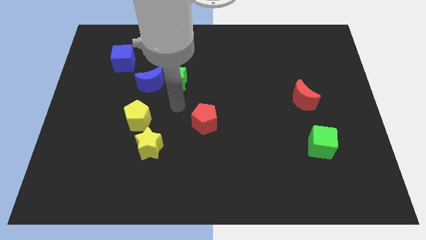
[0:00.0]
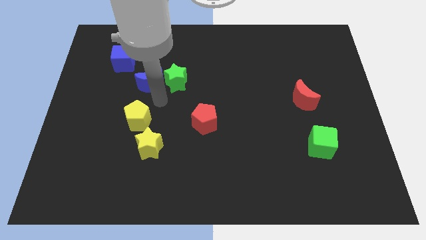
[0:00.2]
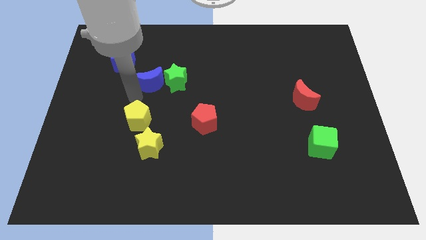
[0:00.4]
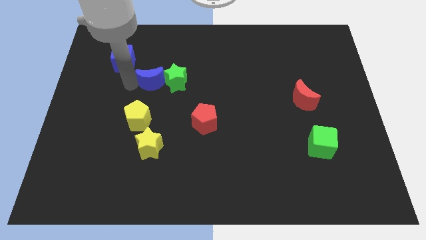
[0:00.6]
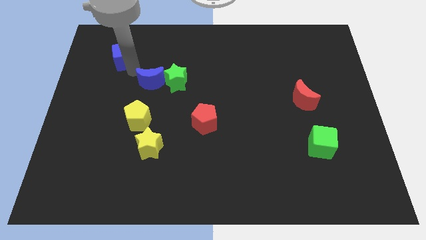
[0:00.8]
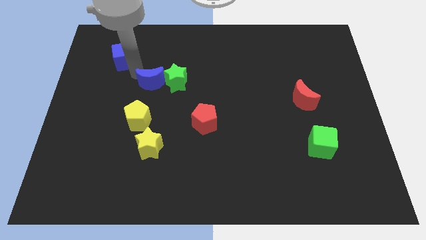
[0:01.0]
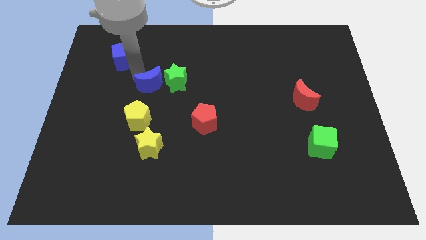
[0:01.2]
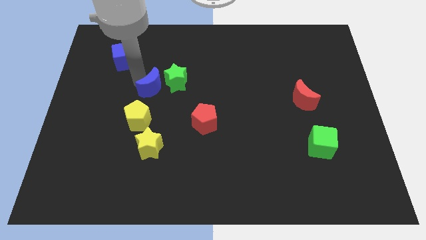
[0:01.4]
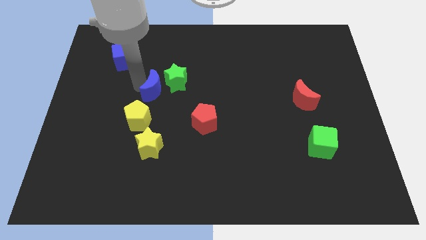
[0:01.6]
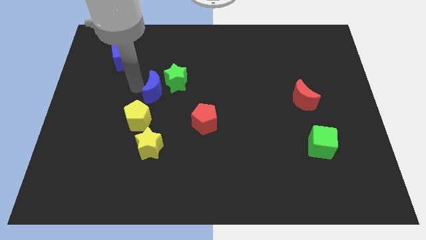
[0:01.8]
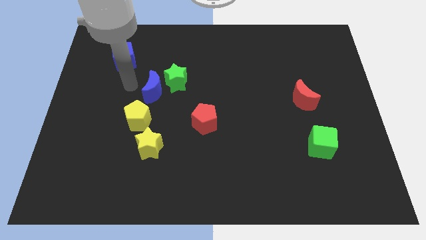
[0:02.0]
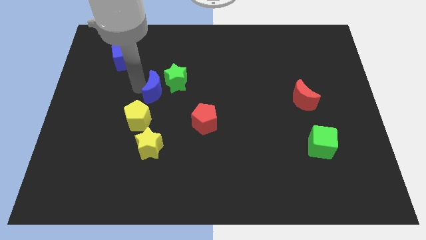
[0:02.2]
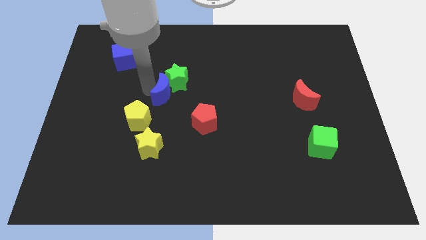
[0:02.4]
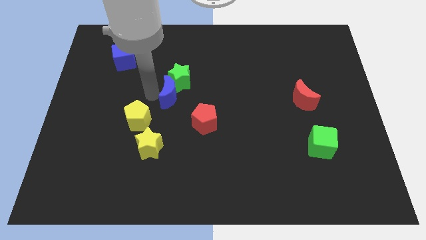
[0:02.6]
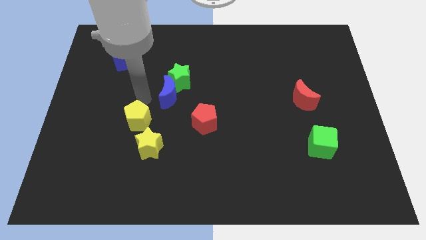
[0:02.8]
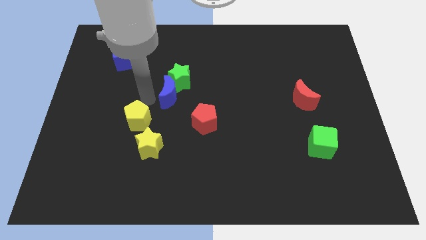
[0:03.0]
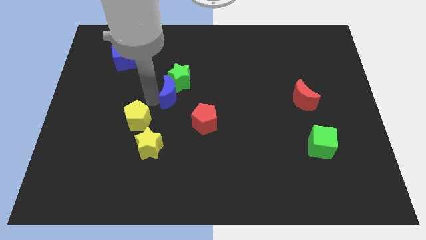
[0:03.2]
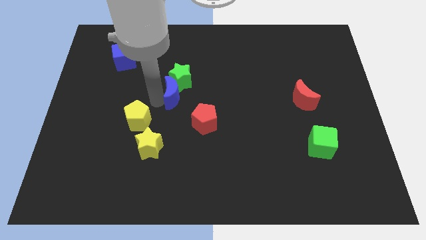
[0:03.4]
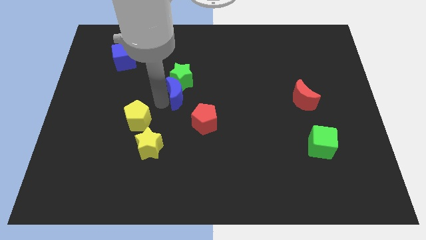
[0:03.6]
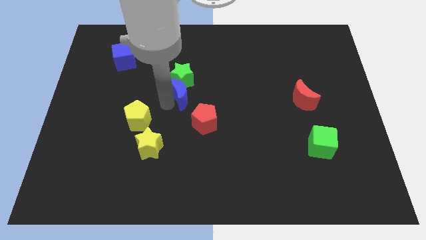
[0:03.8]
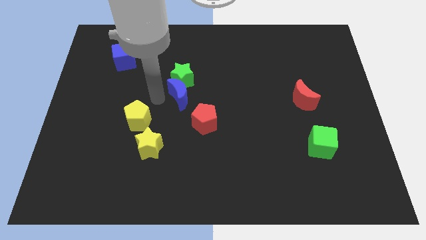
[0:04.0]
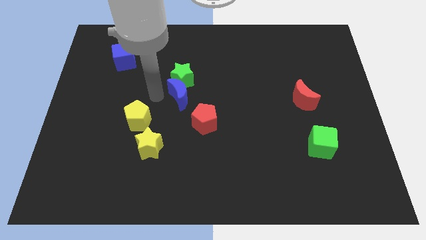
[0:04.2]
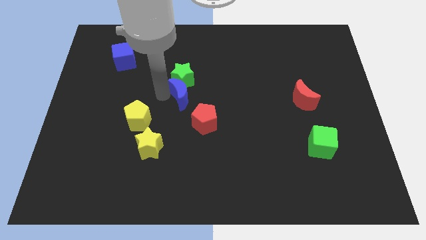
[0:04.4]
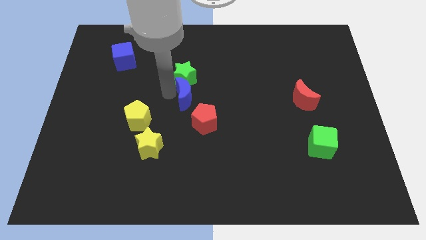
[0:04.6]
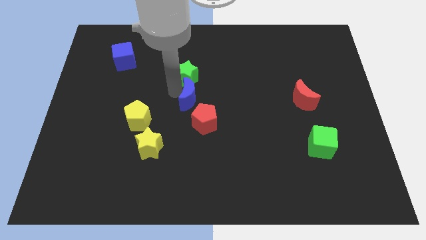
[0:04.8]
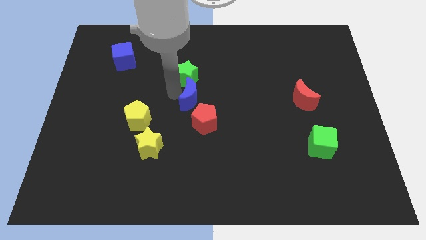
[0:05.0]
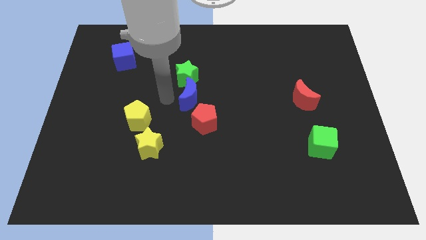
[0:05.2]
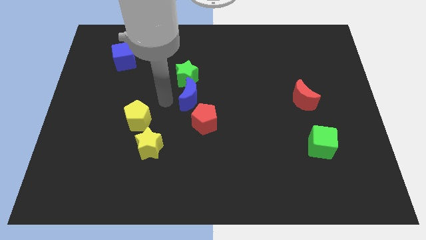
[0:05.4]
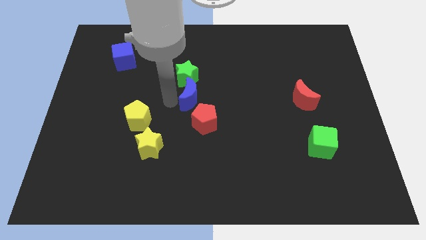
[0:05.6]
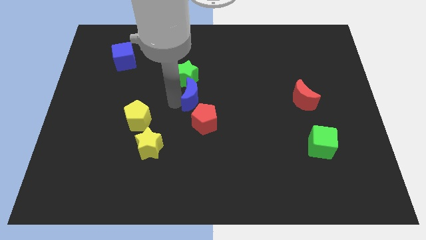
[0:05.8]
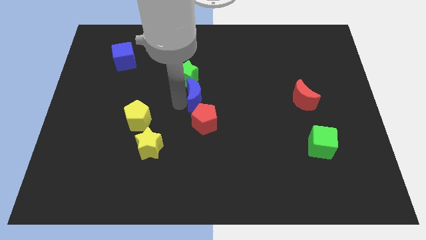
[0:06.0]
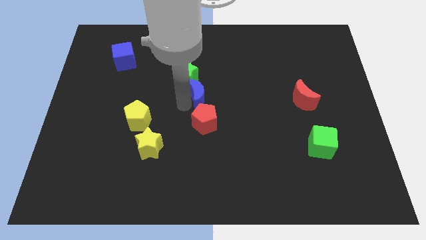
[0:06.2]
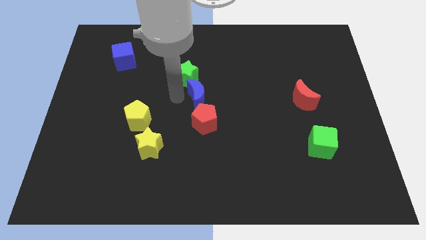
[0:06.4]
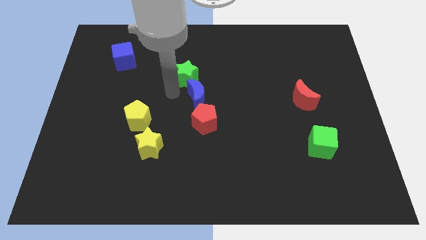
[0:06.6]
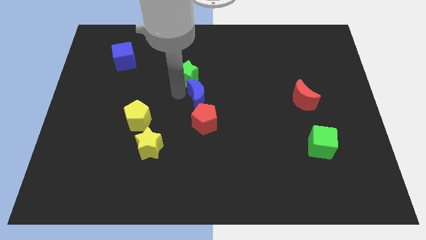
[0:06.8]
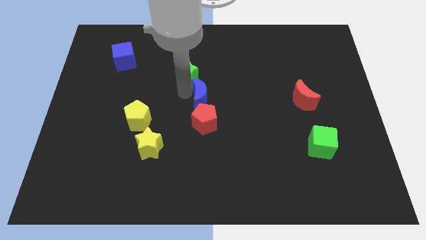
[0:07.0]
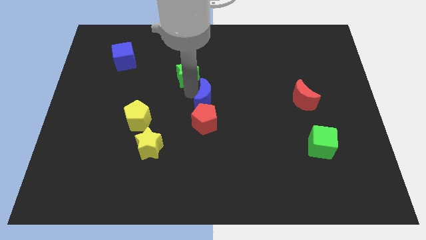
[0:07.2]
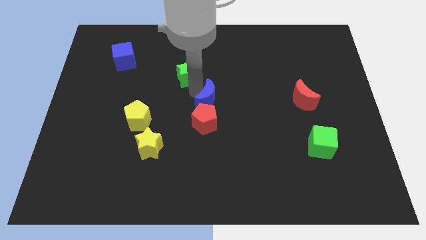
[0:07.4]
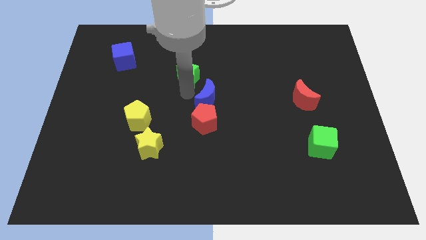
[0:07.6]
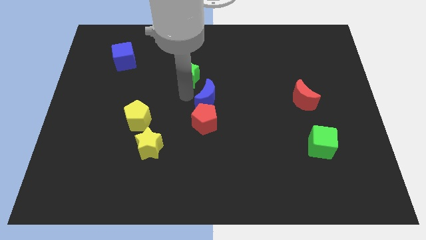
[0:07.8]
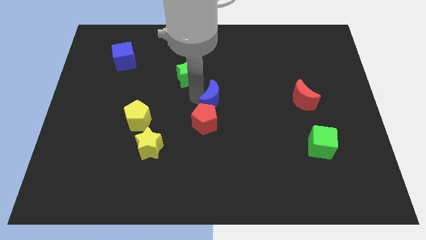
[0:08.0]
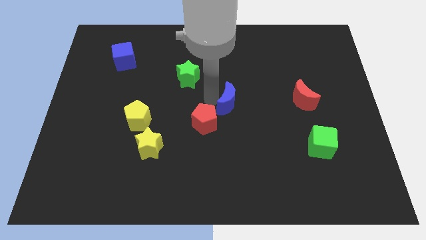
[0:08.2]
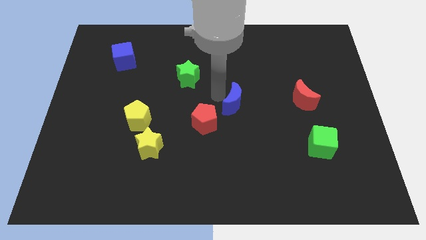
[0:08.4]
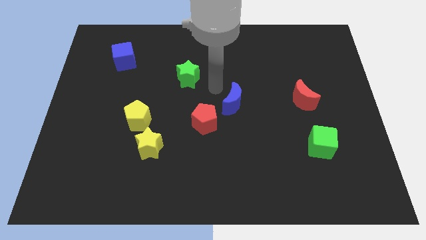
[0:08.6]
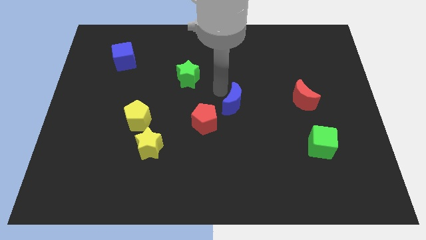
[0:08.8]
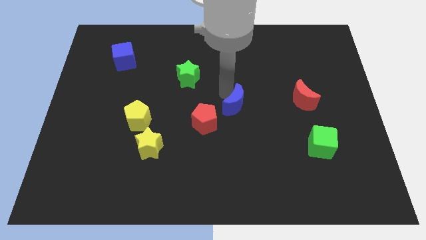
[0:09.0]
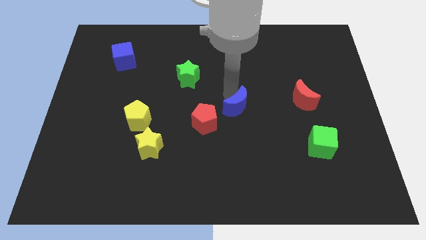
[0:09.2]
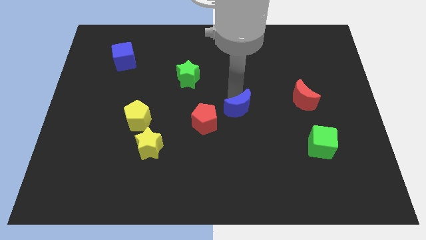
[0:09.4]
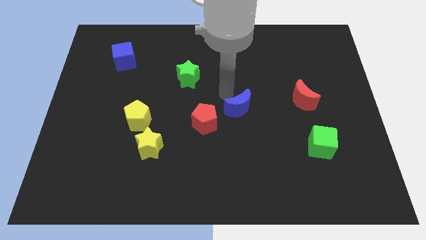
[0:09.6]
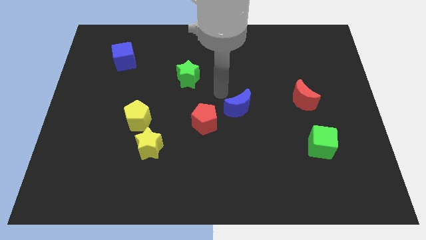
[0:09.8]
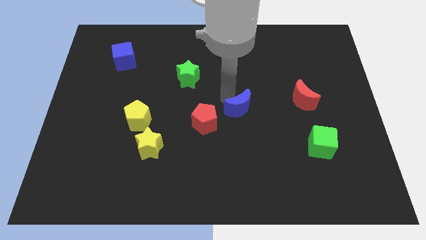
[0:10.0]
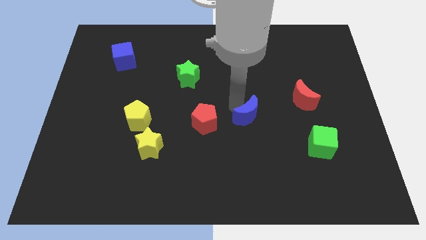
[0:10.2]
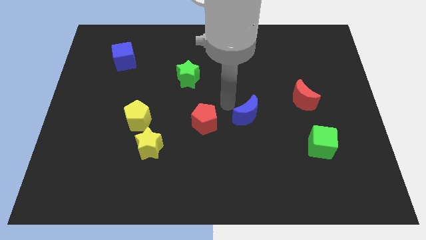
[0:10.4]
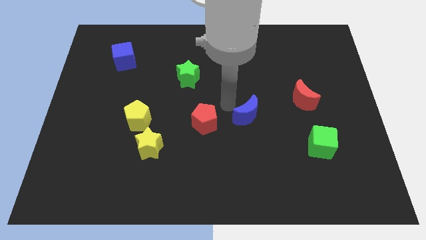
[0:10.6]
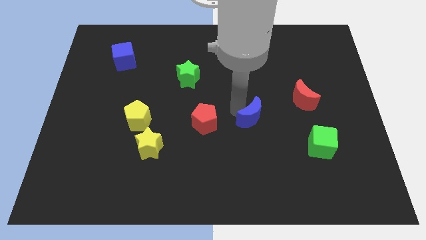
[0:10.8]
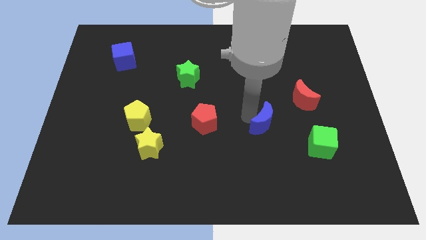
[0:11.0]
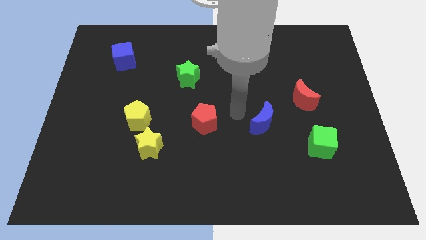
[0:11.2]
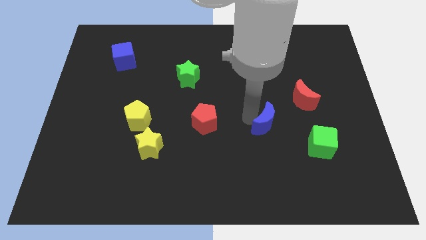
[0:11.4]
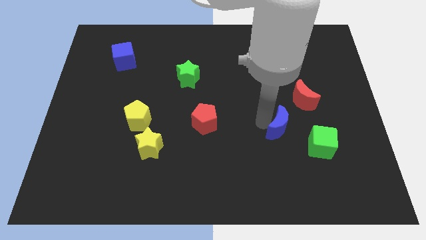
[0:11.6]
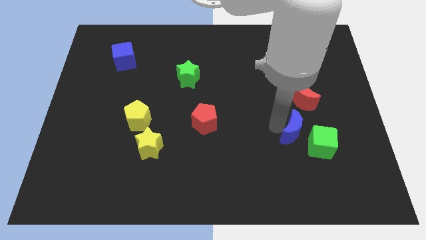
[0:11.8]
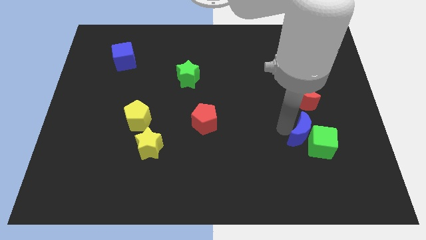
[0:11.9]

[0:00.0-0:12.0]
slide the blue moon next to the green cube

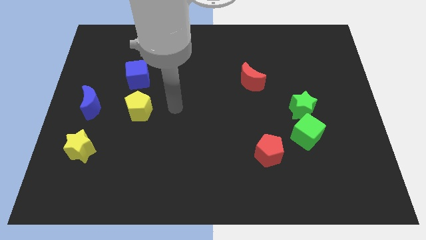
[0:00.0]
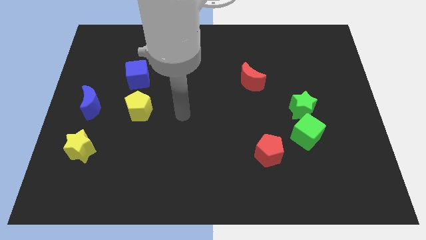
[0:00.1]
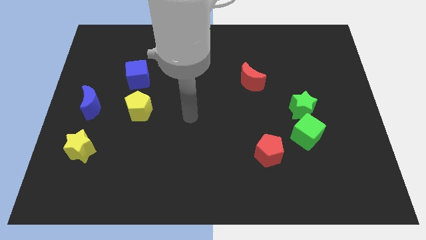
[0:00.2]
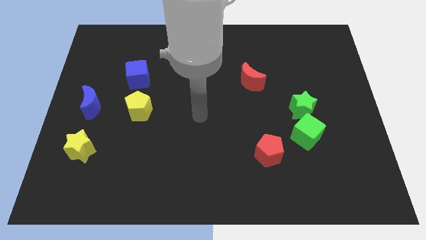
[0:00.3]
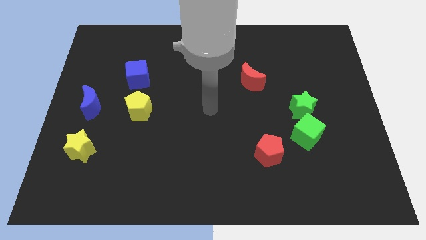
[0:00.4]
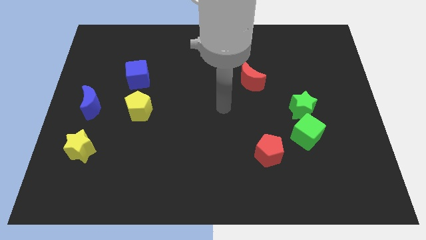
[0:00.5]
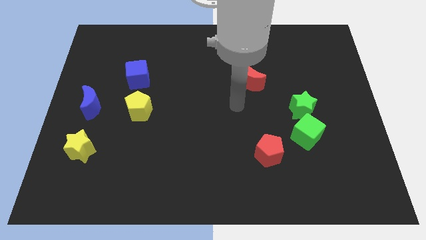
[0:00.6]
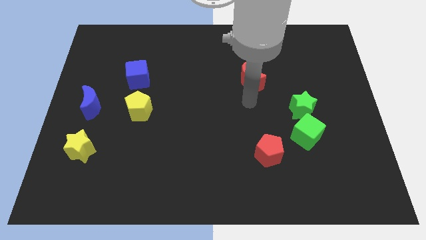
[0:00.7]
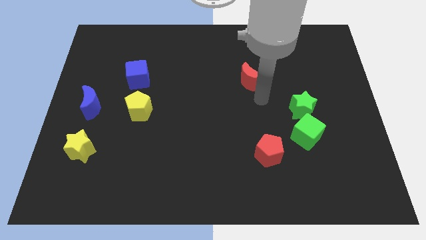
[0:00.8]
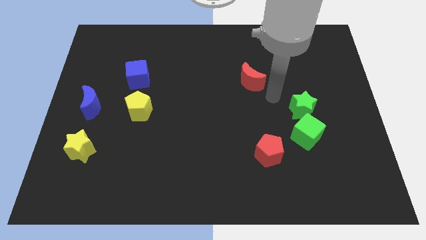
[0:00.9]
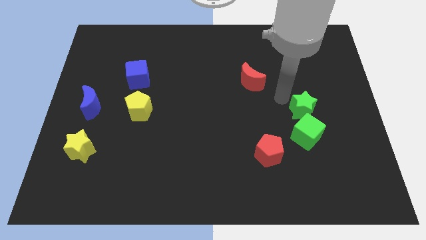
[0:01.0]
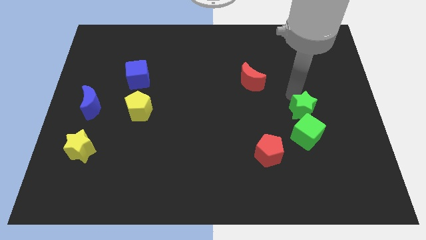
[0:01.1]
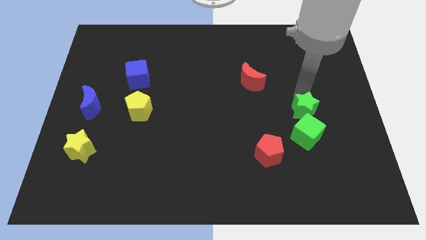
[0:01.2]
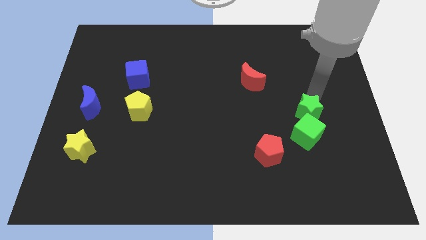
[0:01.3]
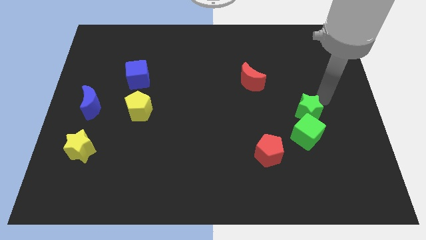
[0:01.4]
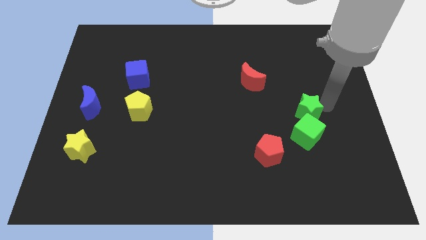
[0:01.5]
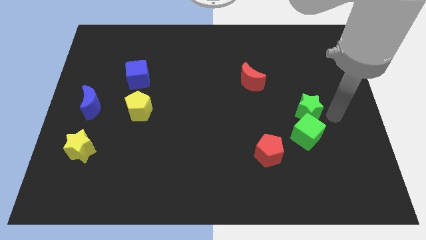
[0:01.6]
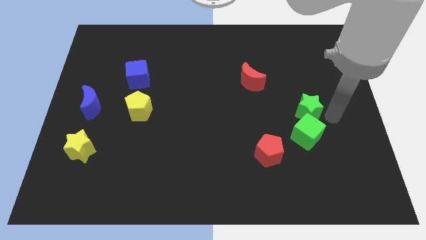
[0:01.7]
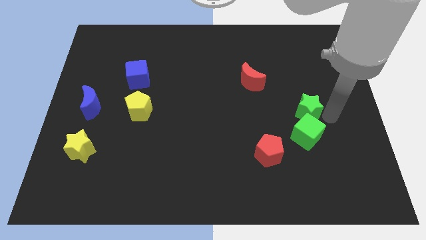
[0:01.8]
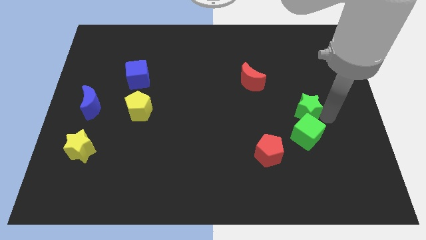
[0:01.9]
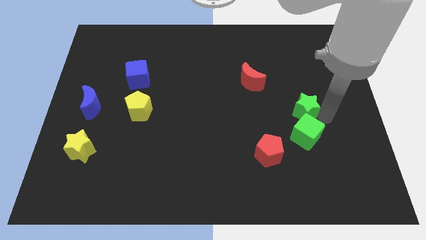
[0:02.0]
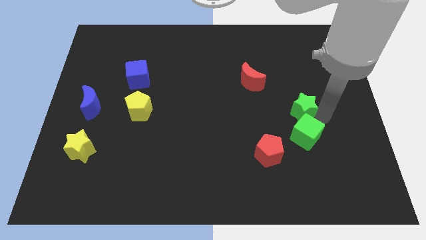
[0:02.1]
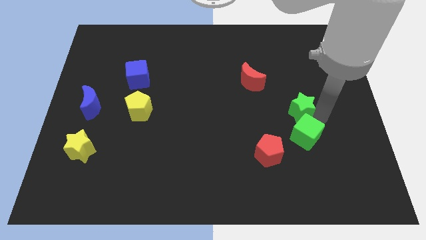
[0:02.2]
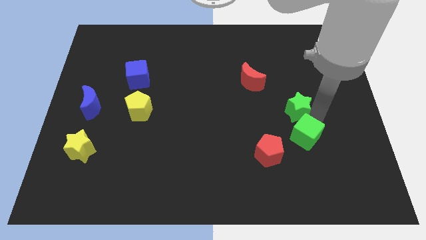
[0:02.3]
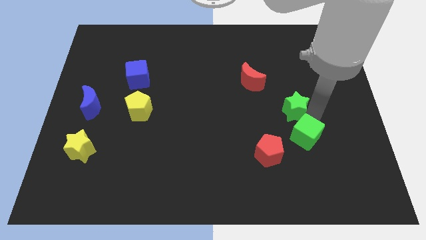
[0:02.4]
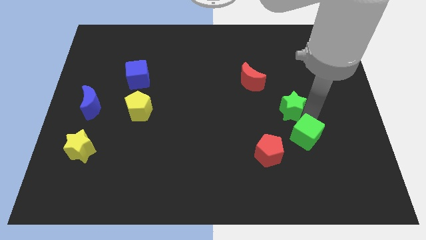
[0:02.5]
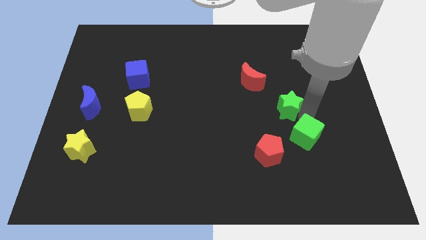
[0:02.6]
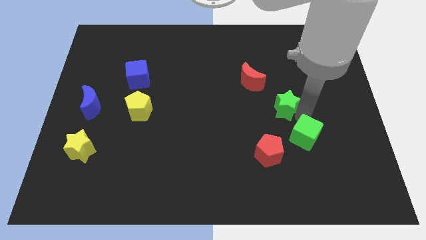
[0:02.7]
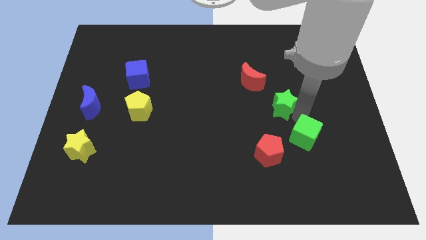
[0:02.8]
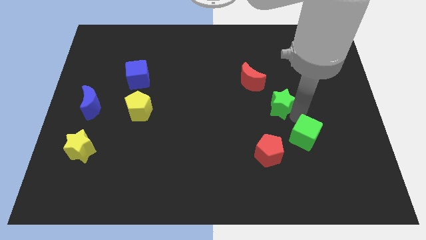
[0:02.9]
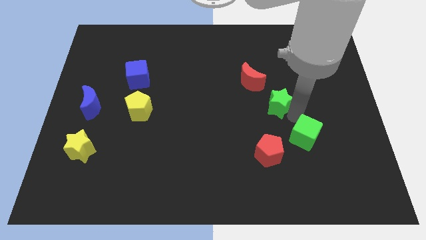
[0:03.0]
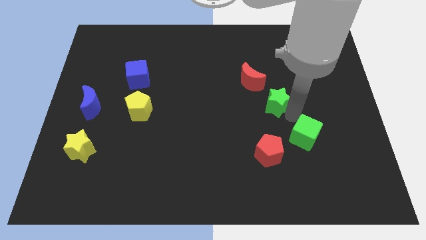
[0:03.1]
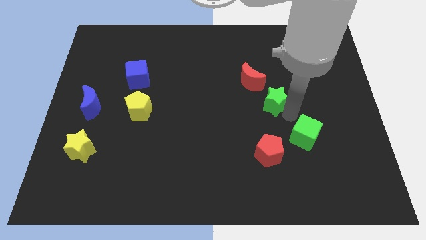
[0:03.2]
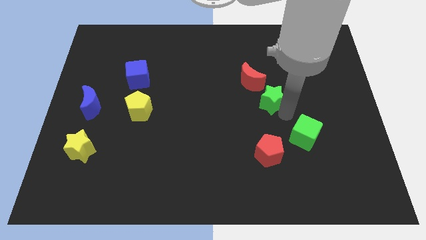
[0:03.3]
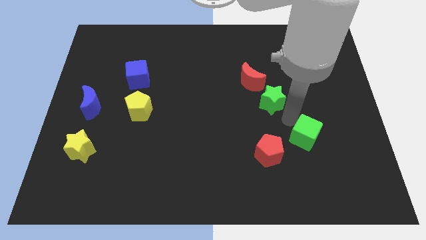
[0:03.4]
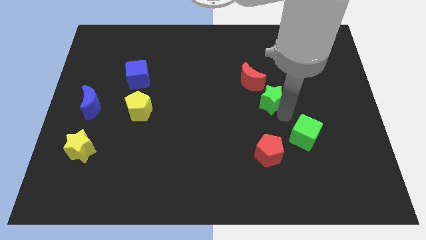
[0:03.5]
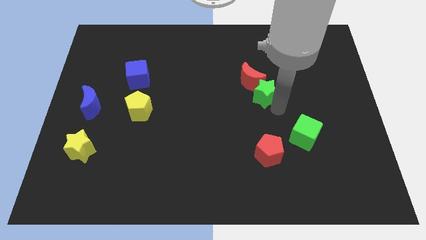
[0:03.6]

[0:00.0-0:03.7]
push the green star to the red moon
